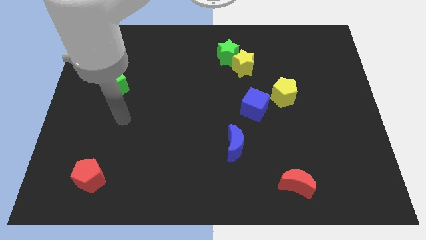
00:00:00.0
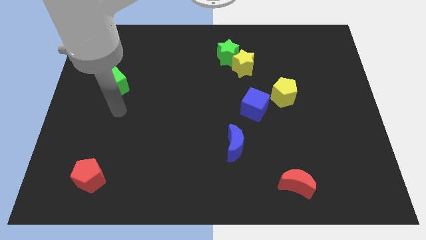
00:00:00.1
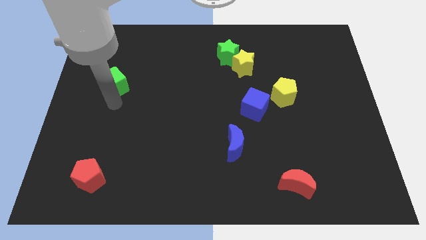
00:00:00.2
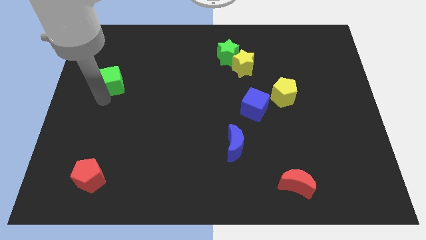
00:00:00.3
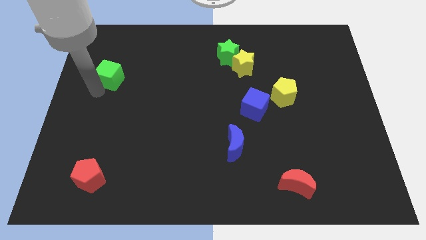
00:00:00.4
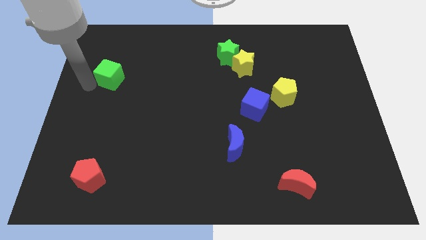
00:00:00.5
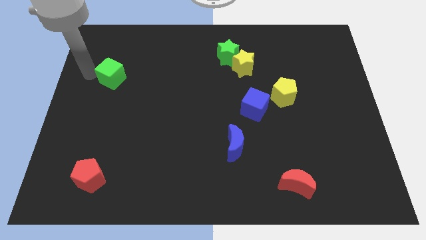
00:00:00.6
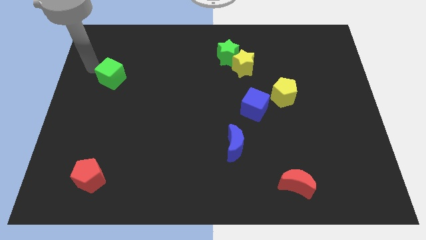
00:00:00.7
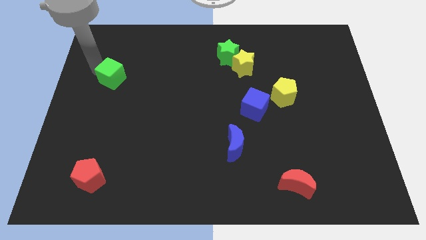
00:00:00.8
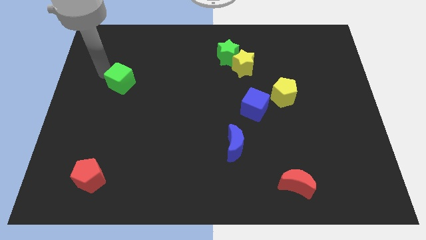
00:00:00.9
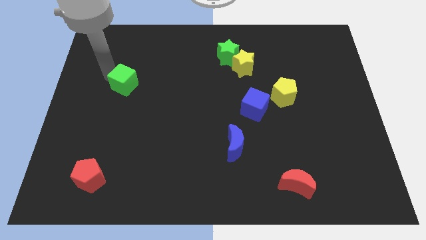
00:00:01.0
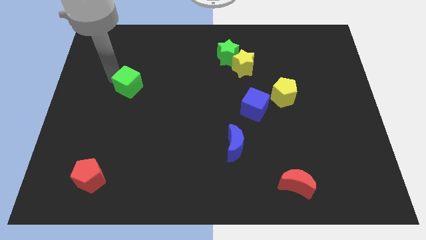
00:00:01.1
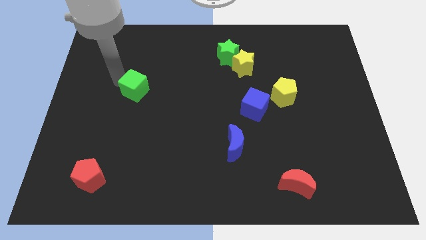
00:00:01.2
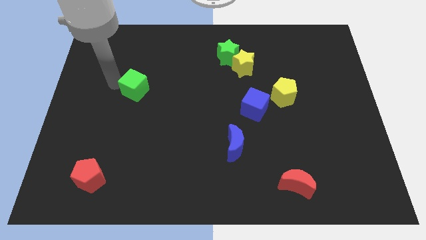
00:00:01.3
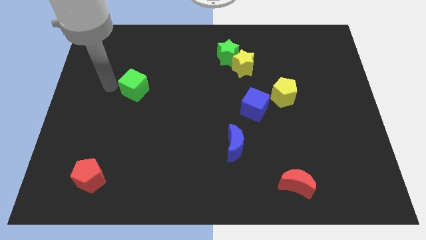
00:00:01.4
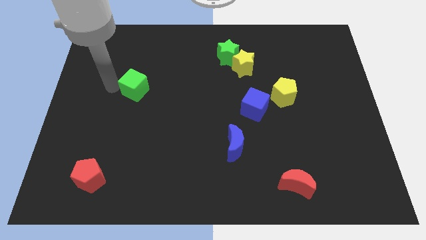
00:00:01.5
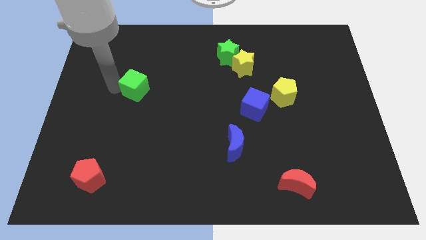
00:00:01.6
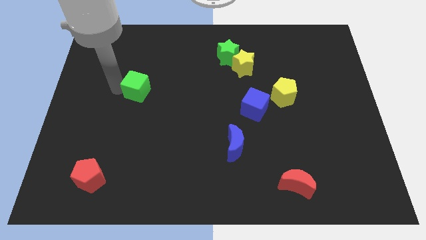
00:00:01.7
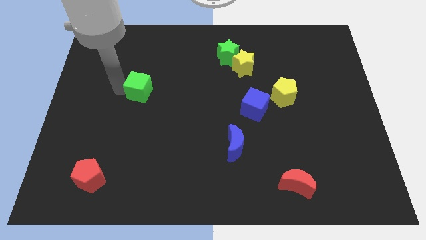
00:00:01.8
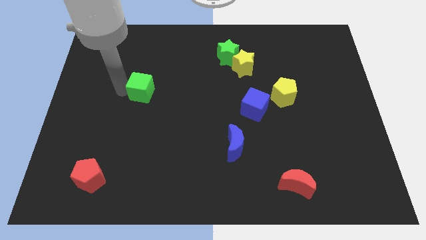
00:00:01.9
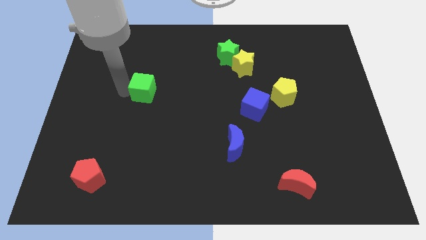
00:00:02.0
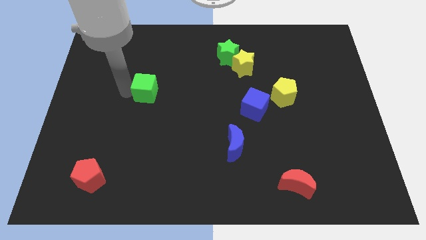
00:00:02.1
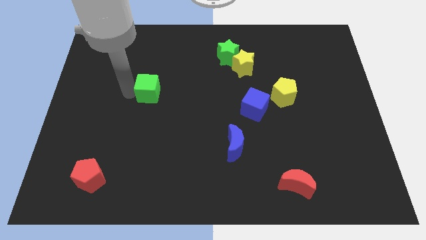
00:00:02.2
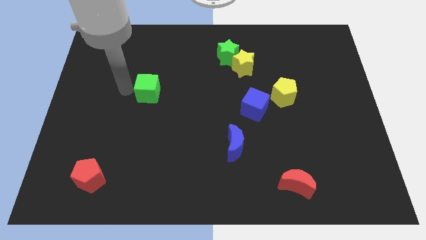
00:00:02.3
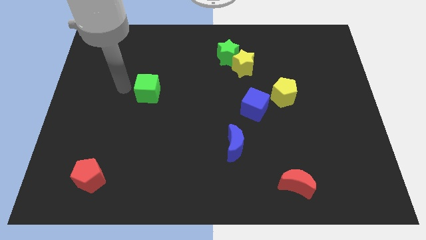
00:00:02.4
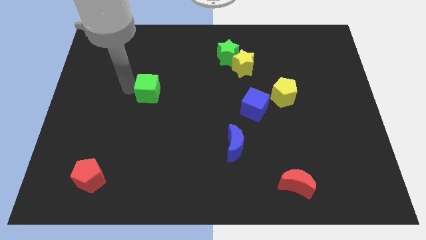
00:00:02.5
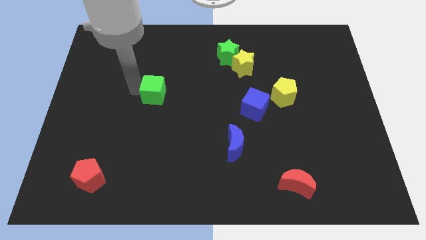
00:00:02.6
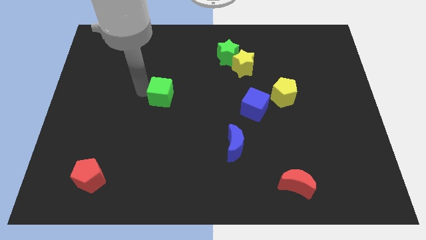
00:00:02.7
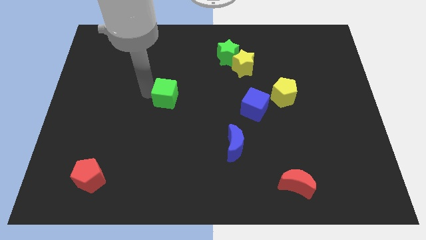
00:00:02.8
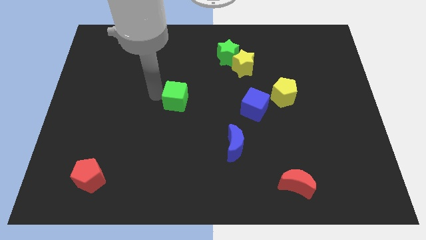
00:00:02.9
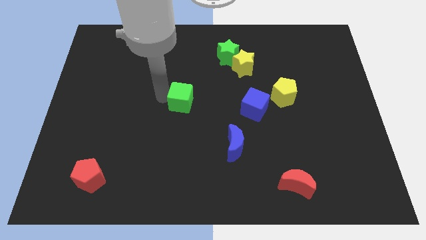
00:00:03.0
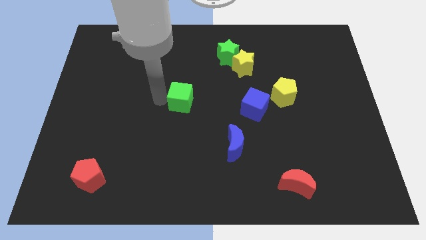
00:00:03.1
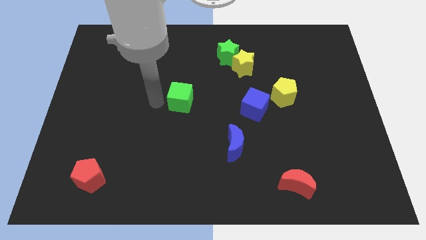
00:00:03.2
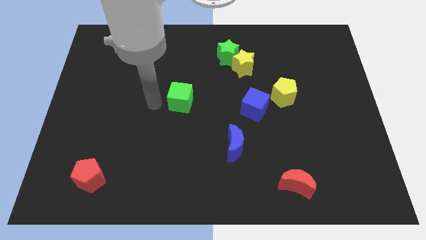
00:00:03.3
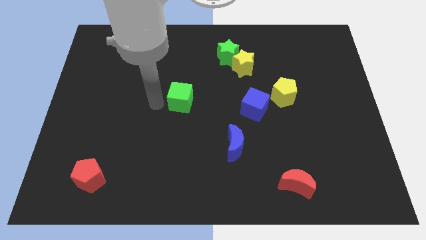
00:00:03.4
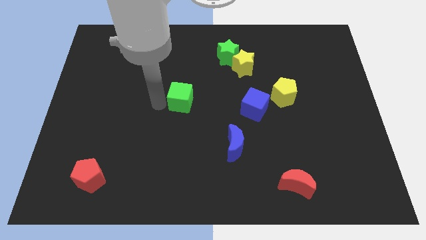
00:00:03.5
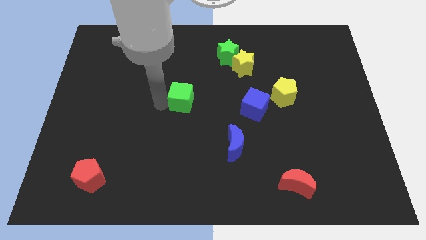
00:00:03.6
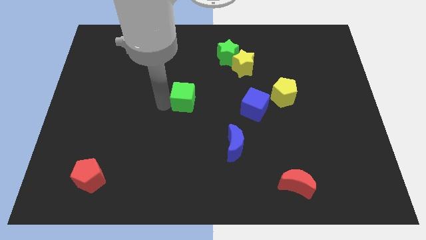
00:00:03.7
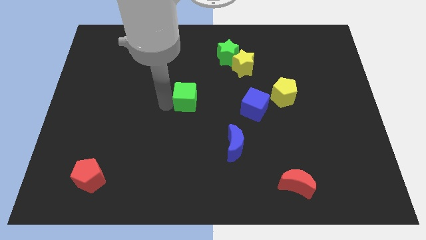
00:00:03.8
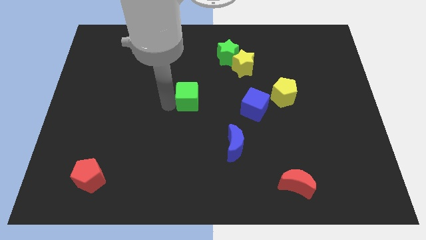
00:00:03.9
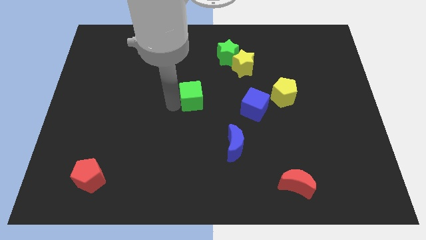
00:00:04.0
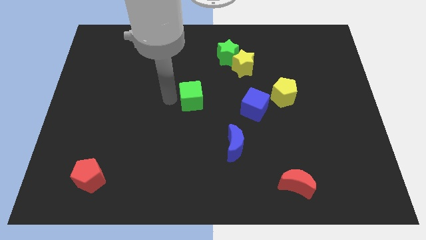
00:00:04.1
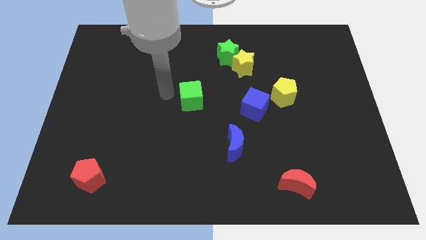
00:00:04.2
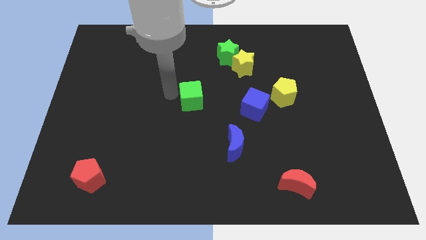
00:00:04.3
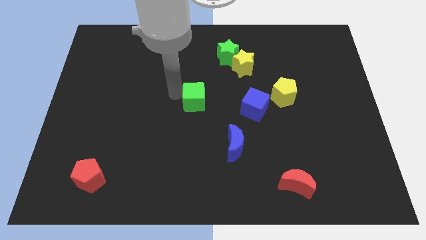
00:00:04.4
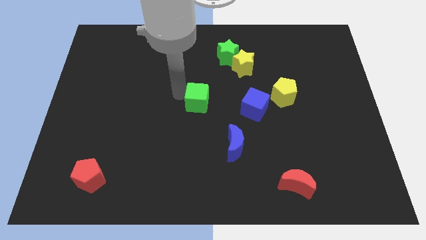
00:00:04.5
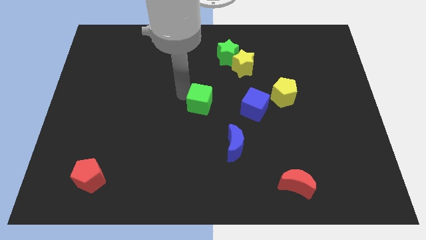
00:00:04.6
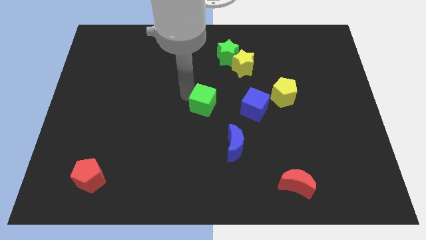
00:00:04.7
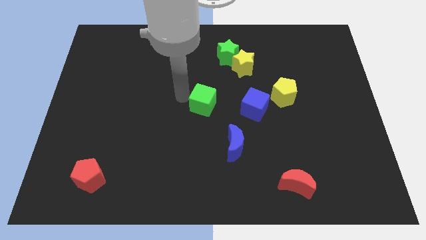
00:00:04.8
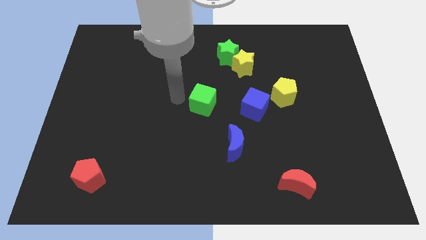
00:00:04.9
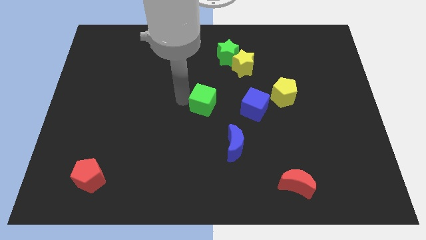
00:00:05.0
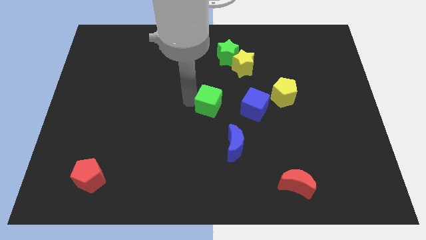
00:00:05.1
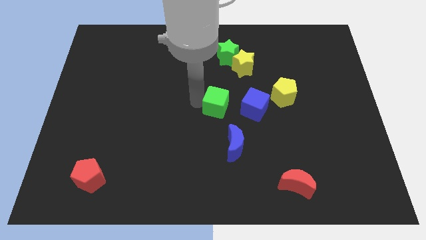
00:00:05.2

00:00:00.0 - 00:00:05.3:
put the green cube above the blue moon

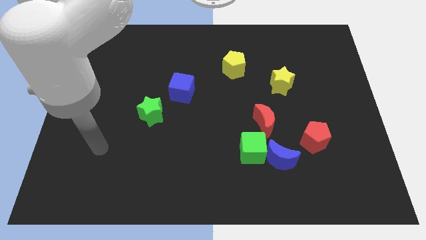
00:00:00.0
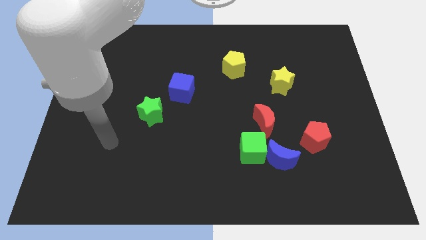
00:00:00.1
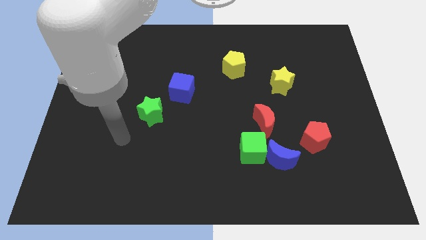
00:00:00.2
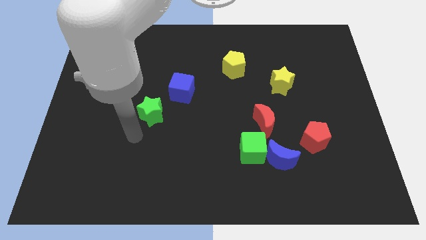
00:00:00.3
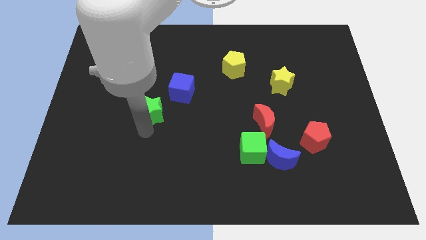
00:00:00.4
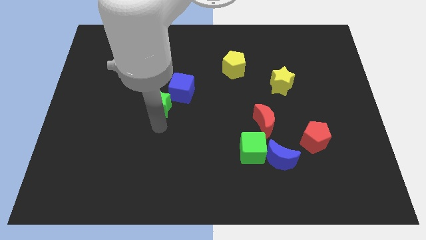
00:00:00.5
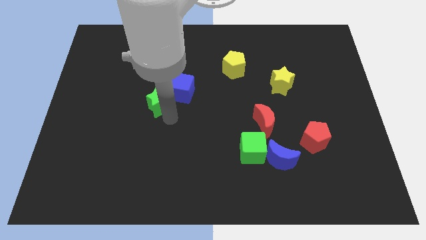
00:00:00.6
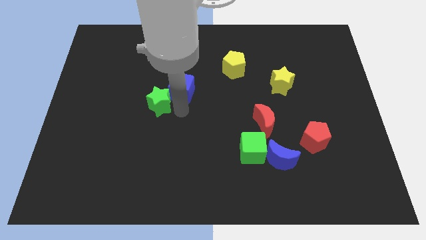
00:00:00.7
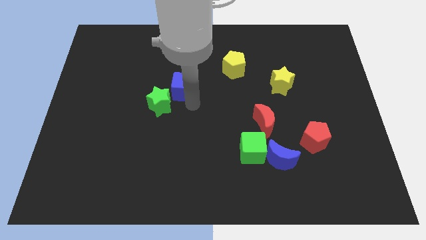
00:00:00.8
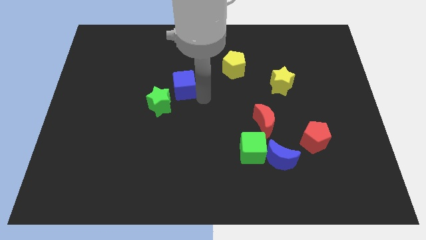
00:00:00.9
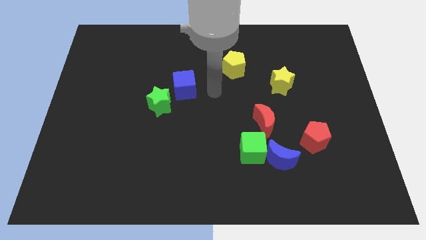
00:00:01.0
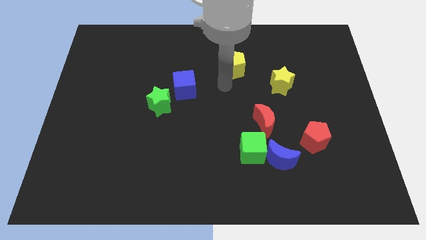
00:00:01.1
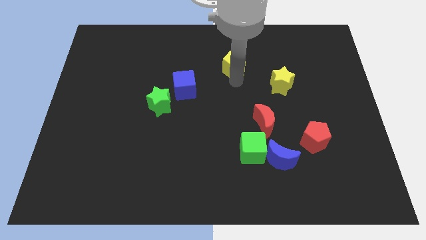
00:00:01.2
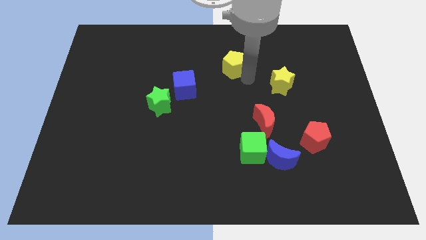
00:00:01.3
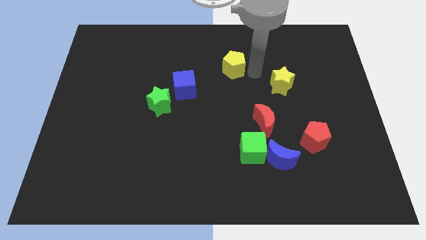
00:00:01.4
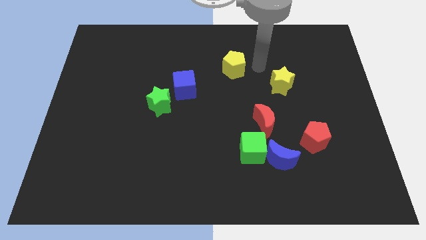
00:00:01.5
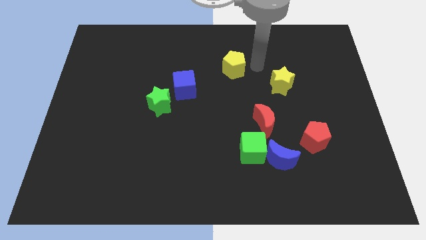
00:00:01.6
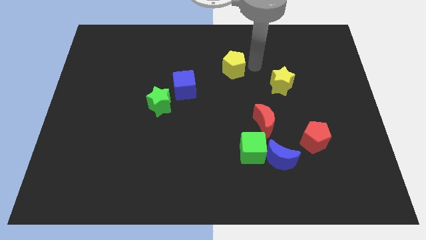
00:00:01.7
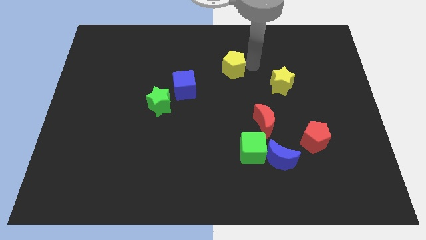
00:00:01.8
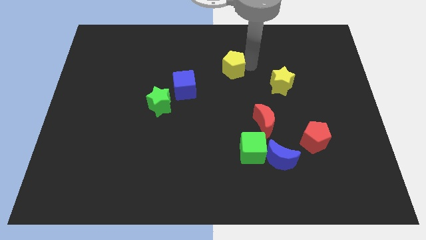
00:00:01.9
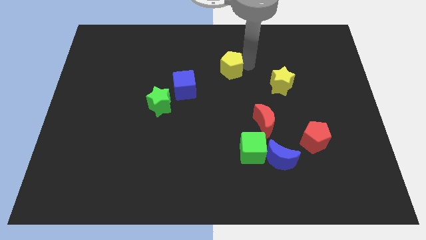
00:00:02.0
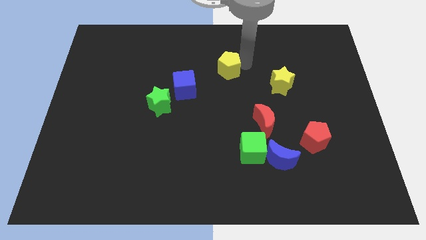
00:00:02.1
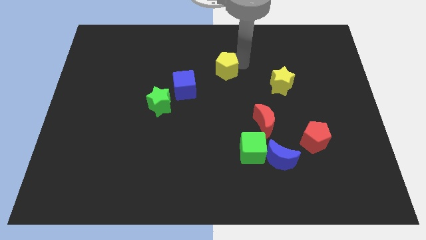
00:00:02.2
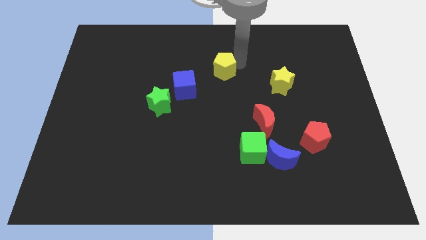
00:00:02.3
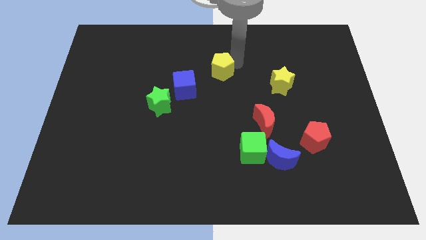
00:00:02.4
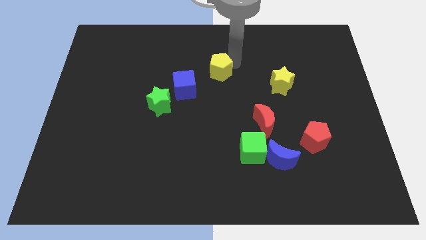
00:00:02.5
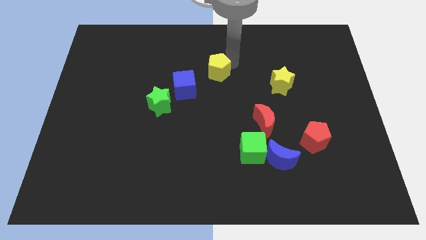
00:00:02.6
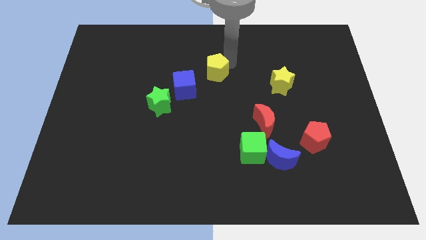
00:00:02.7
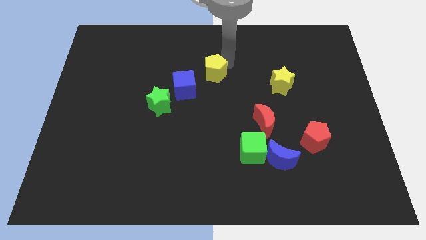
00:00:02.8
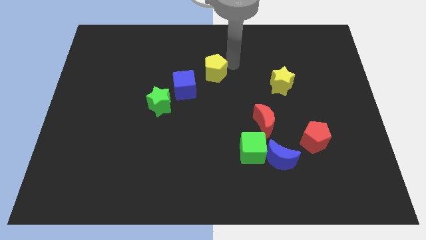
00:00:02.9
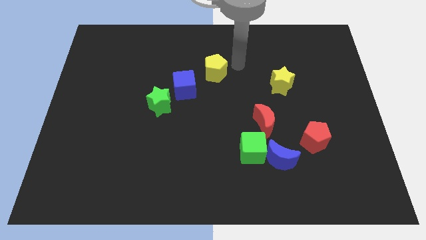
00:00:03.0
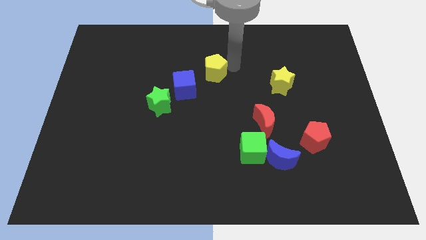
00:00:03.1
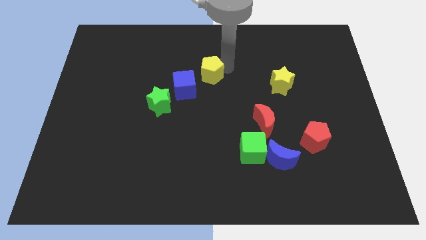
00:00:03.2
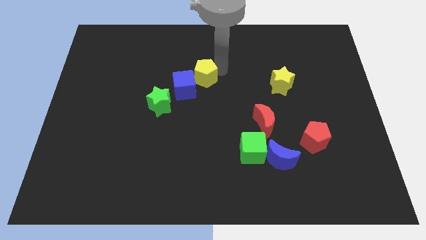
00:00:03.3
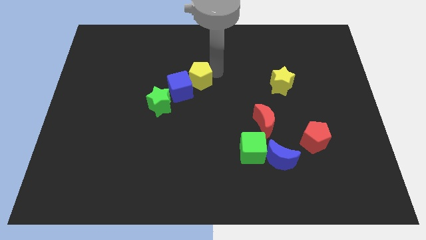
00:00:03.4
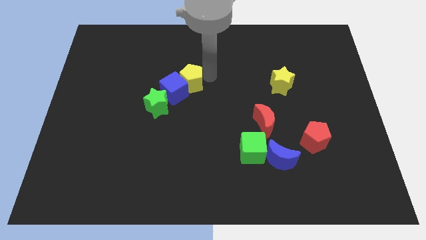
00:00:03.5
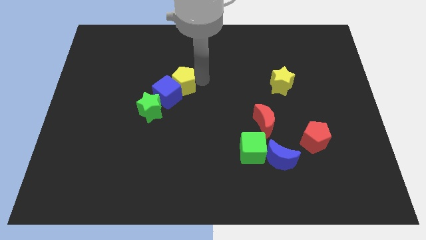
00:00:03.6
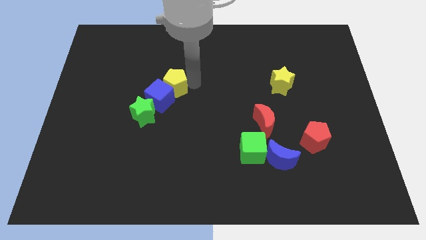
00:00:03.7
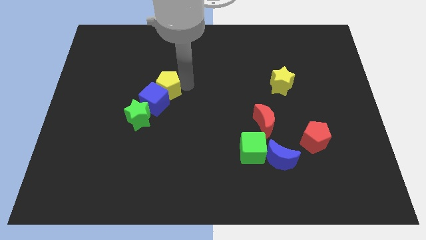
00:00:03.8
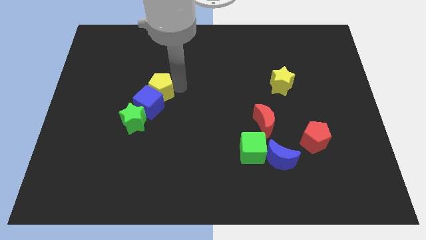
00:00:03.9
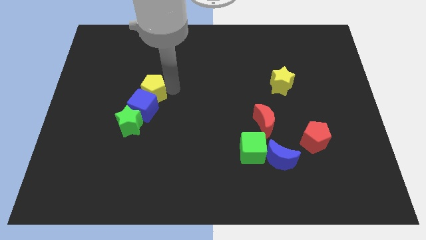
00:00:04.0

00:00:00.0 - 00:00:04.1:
slide the yellow pentagon to the top of the green star
